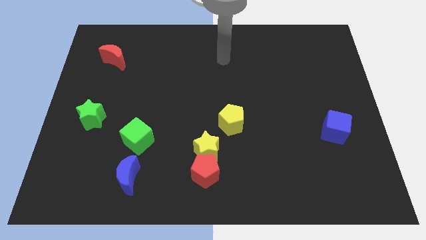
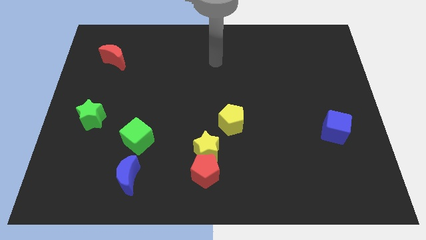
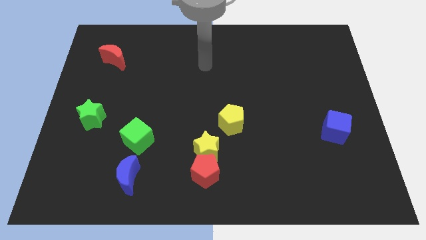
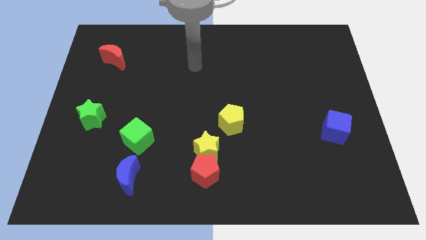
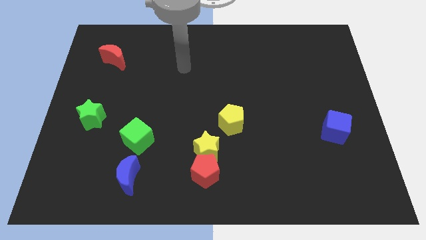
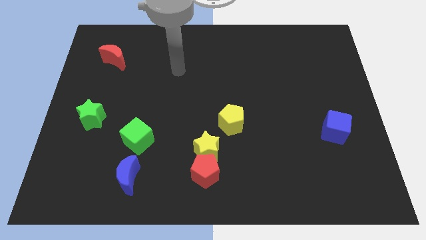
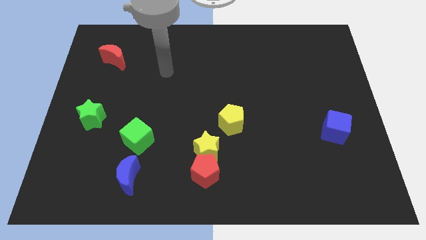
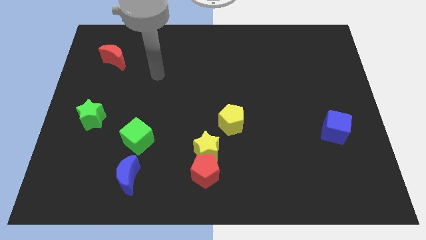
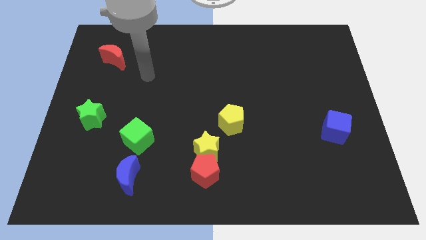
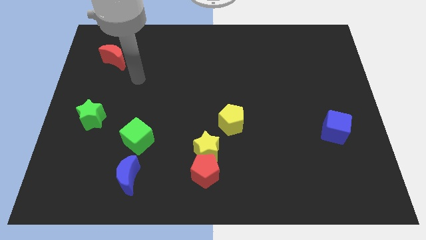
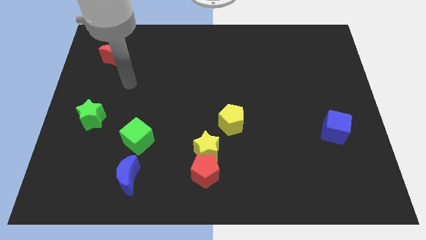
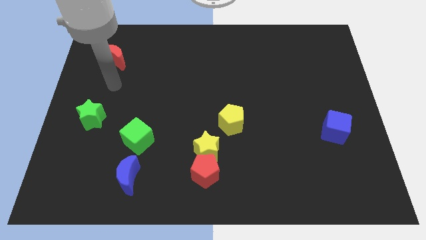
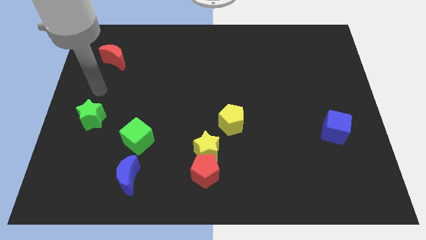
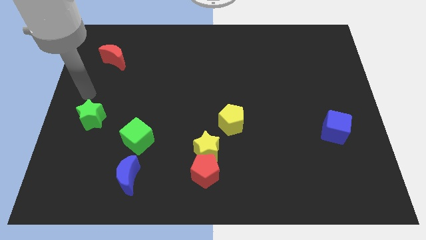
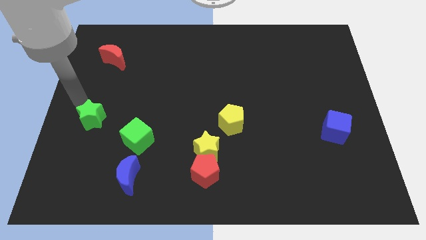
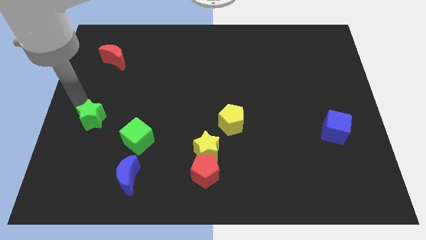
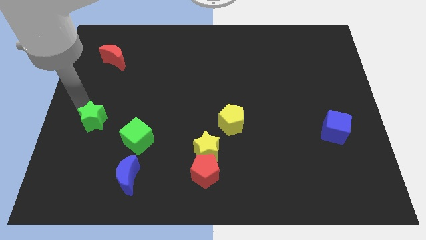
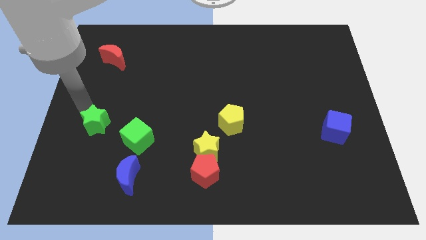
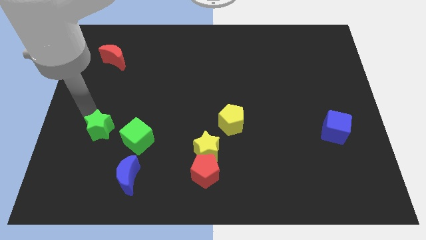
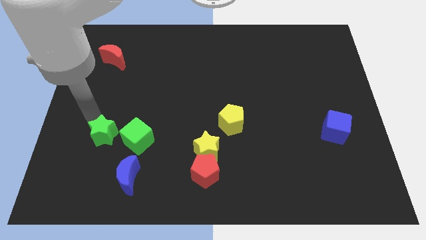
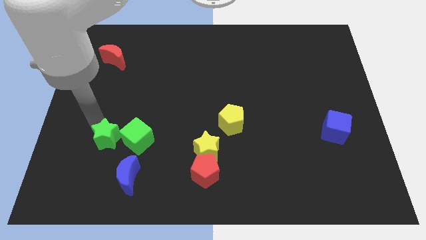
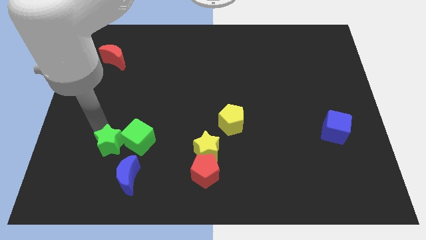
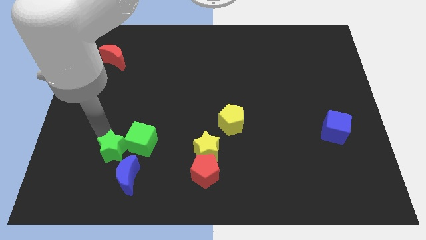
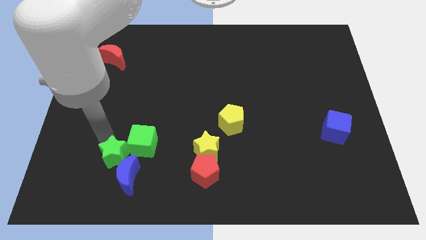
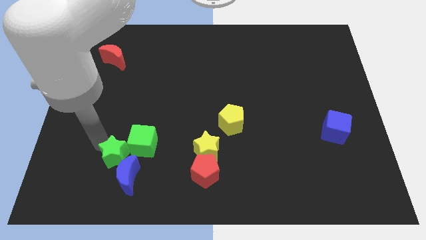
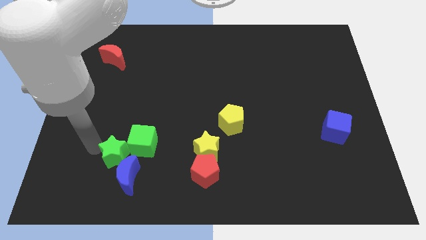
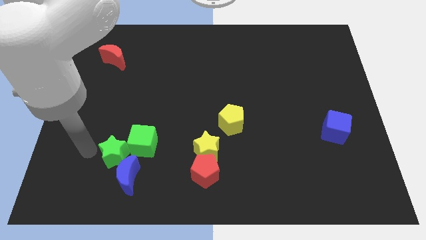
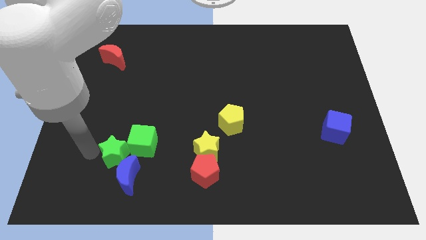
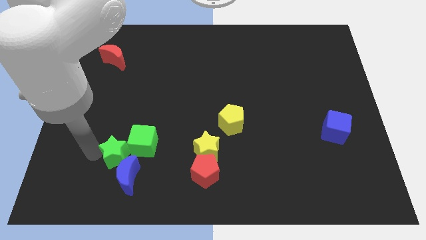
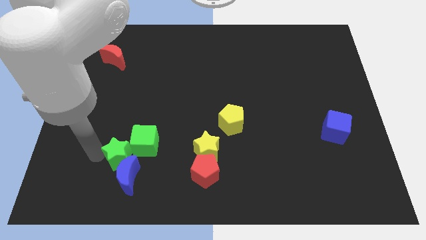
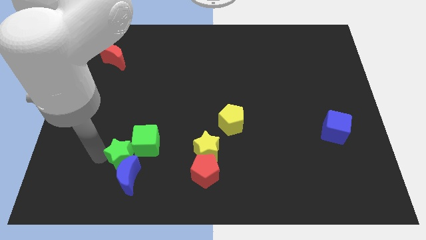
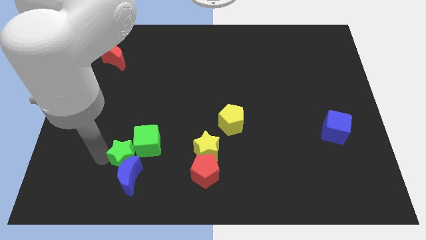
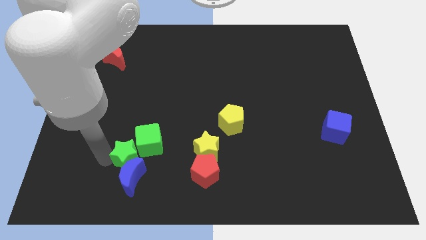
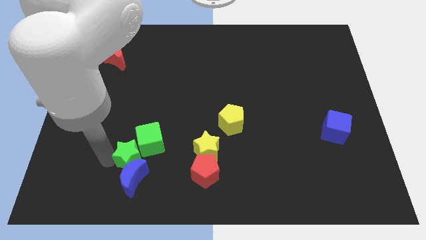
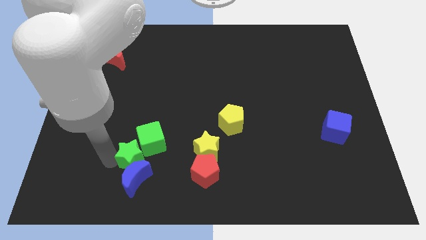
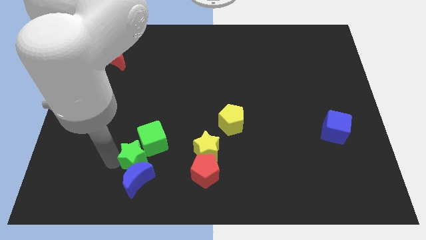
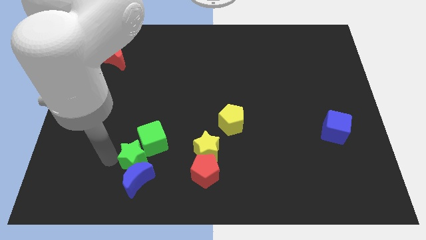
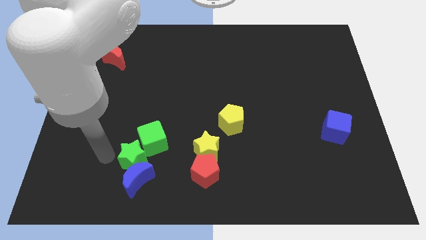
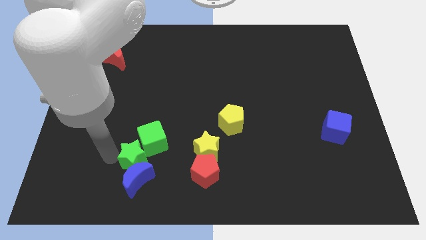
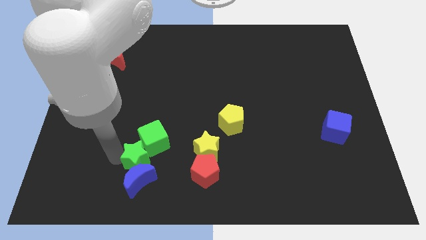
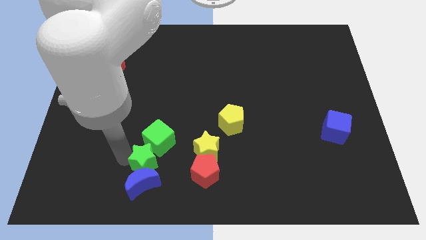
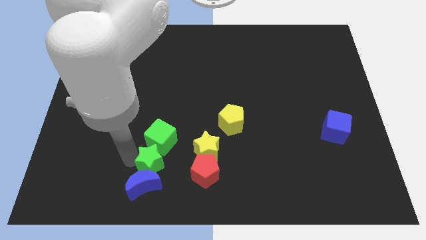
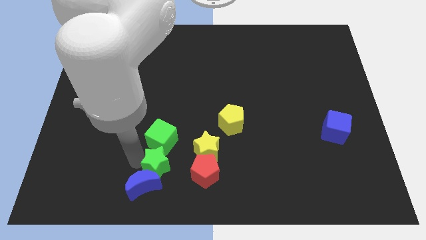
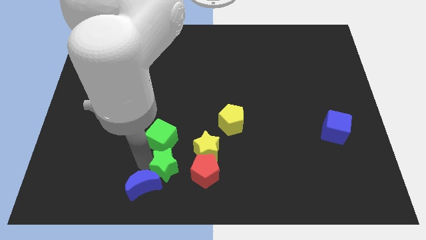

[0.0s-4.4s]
put the green star to the bottom left side of the yellow star

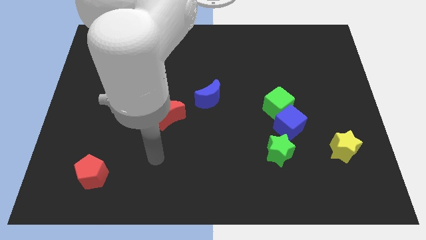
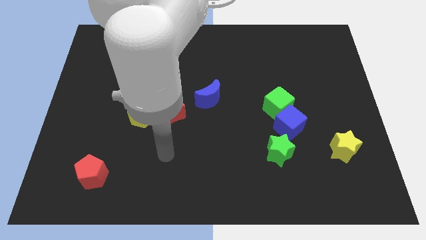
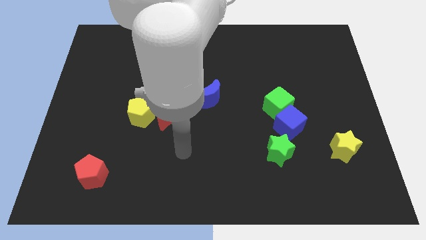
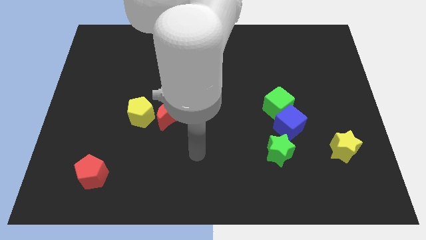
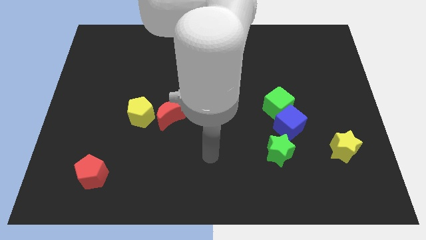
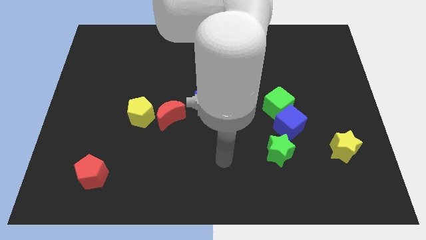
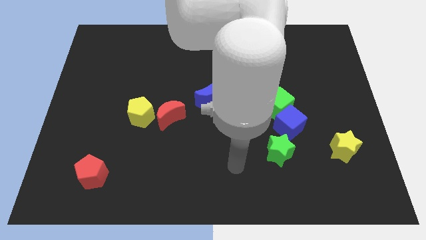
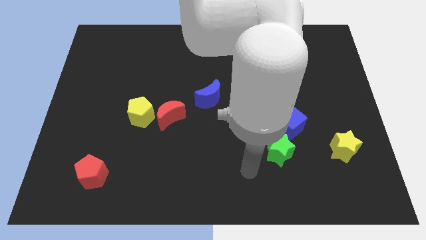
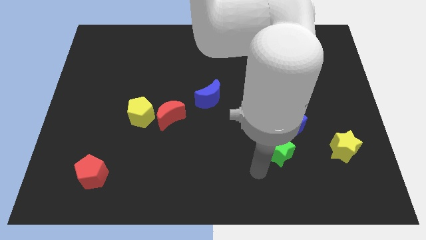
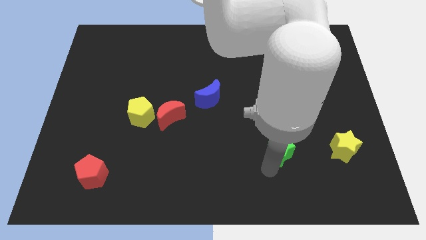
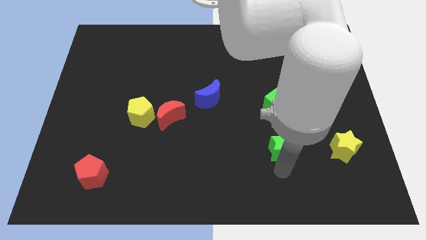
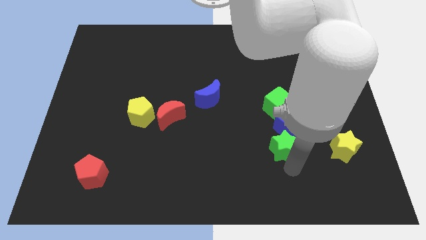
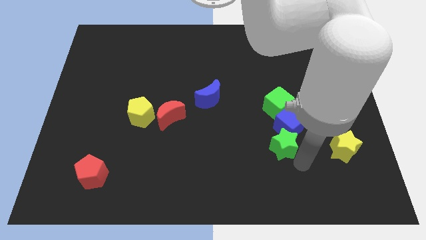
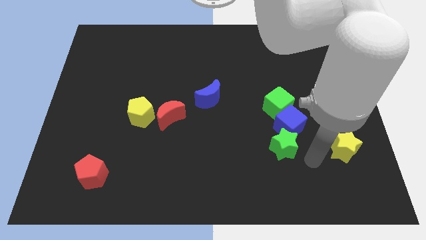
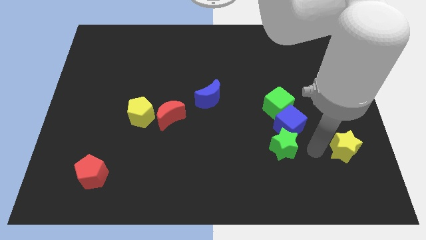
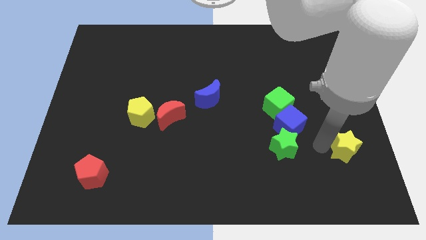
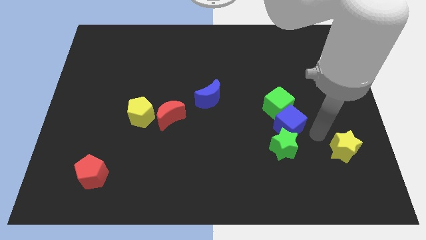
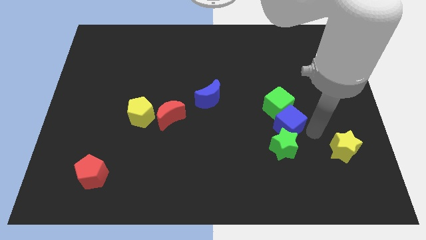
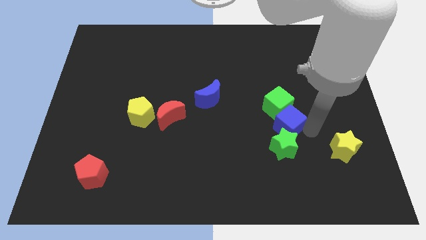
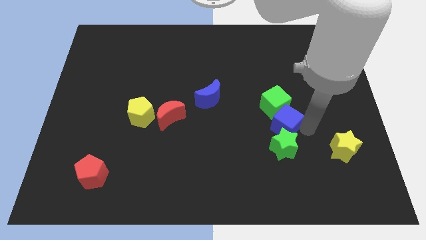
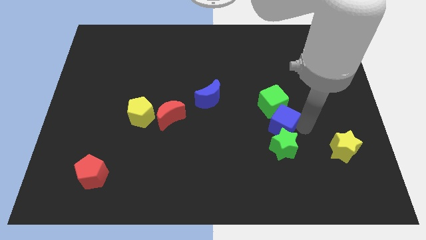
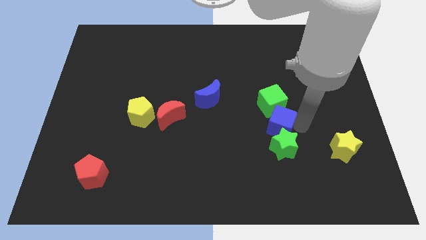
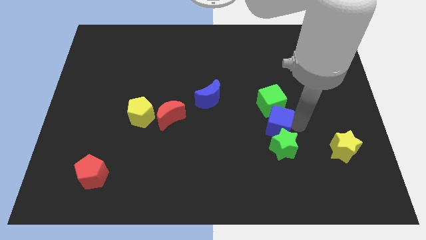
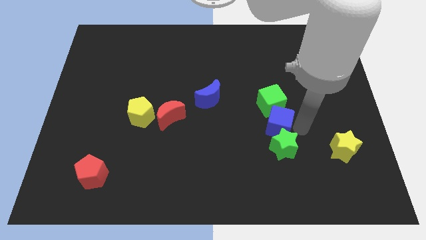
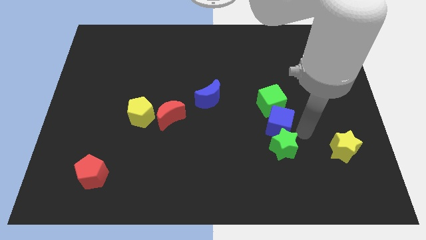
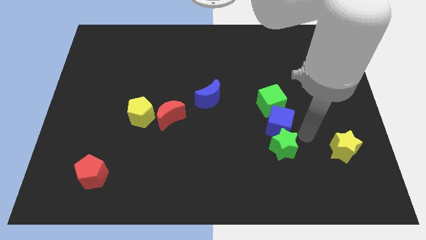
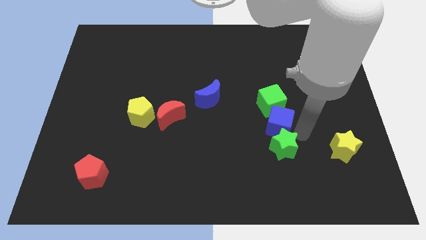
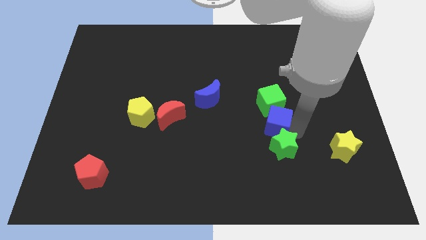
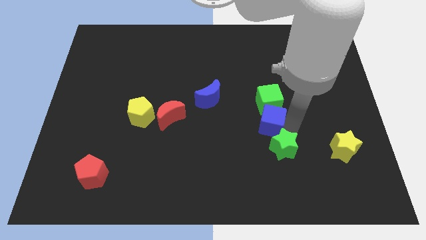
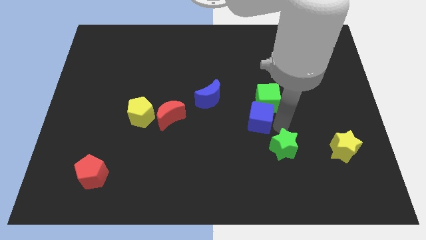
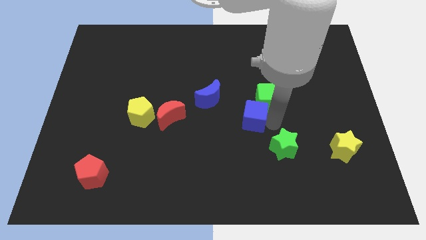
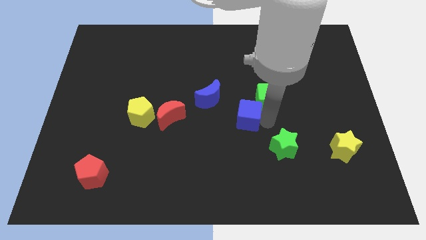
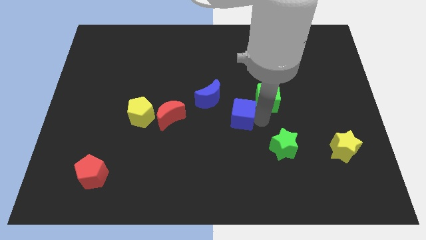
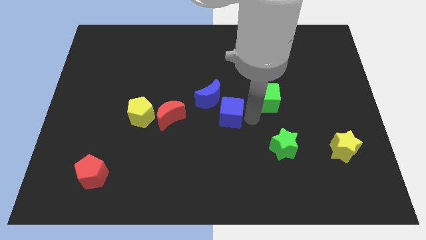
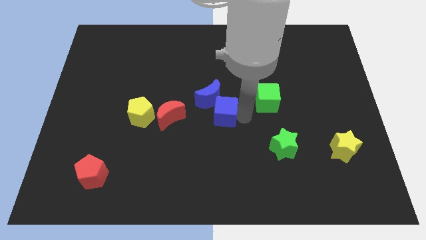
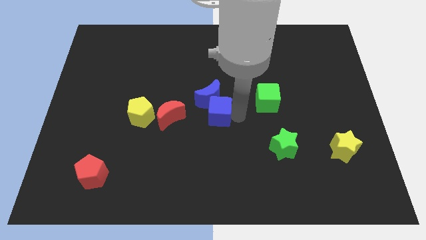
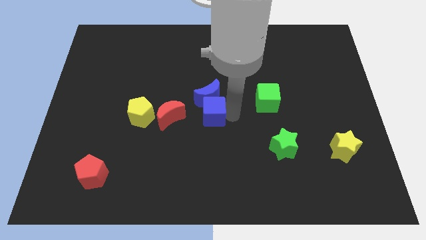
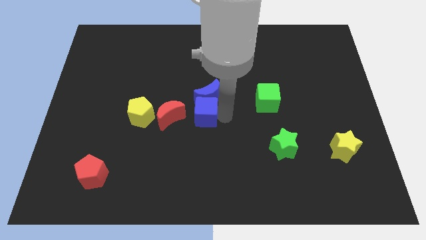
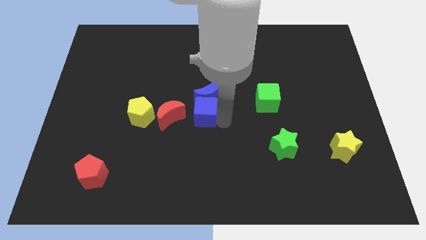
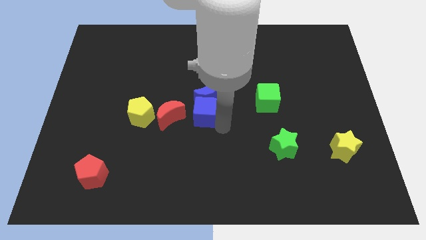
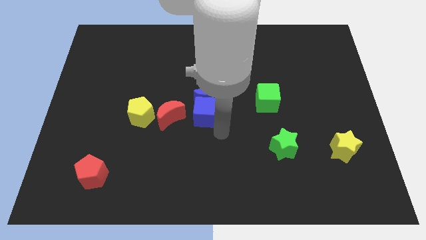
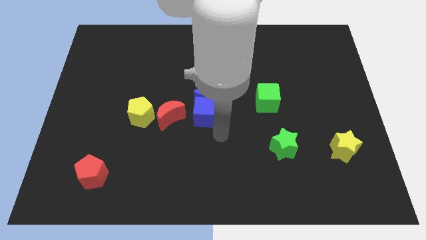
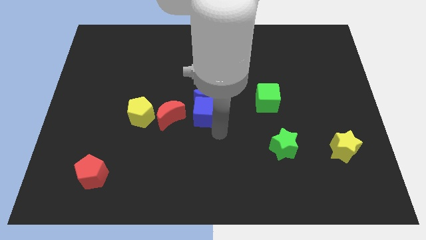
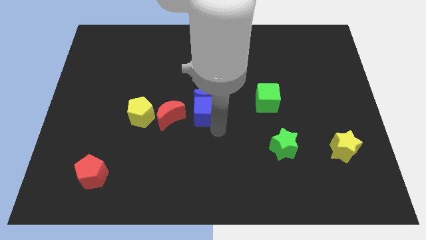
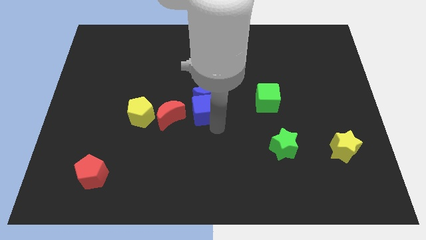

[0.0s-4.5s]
push the blue cube to the top right side of the red moon
